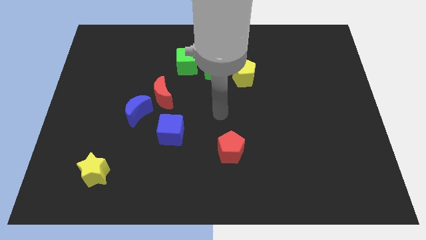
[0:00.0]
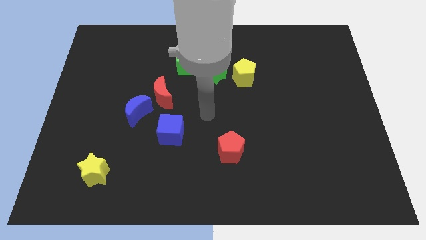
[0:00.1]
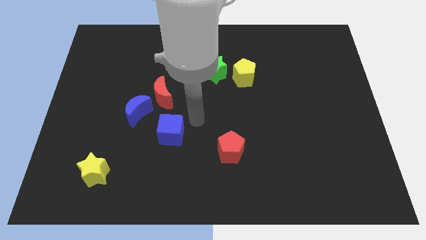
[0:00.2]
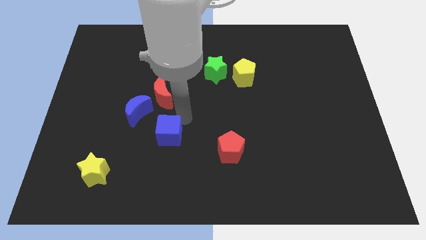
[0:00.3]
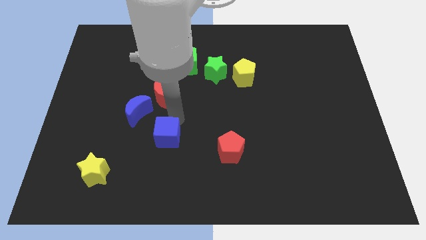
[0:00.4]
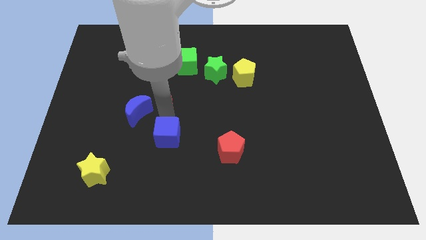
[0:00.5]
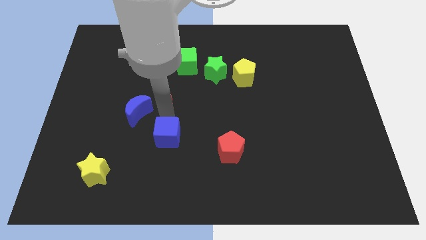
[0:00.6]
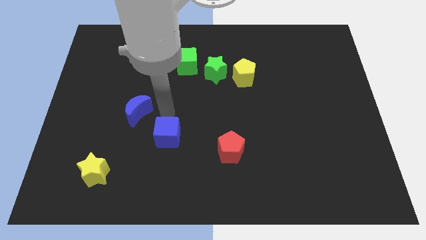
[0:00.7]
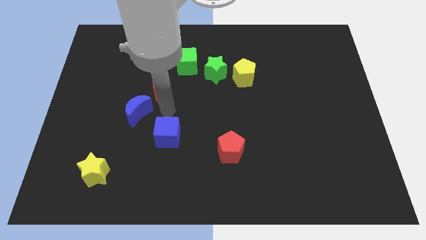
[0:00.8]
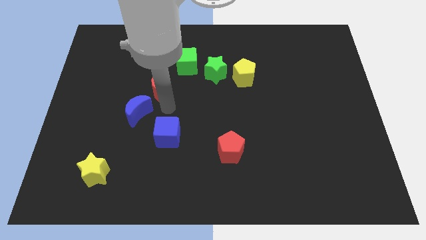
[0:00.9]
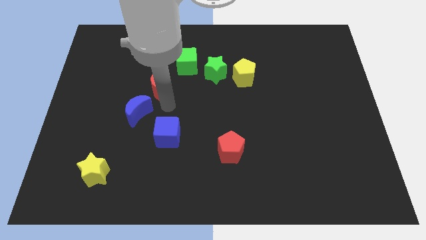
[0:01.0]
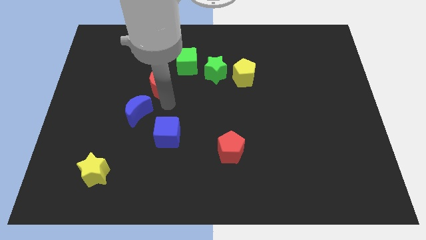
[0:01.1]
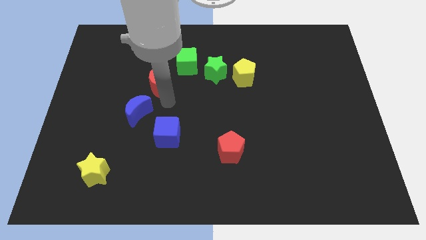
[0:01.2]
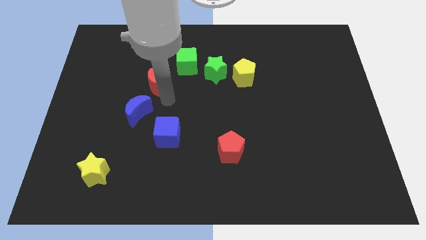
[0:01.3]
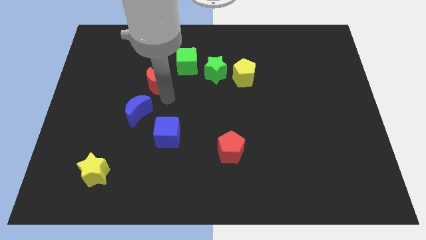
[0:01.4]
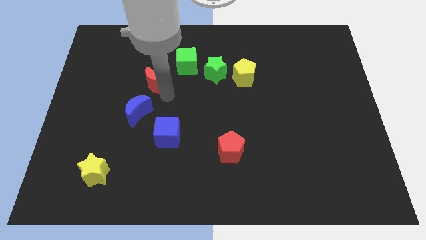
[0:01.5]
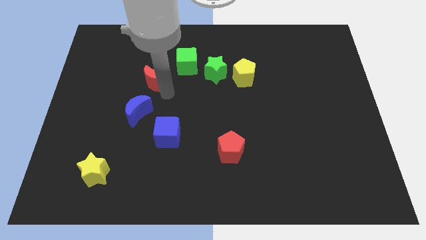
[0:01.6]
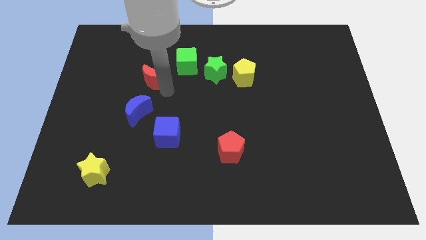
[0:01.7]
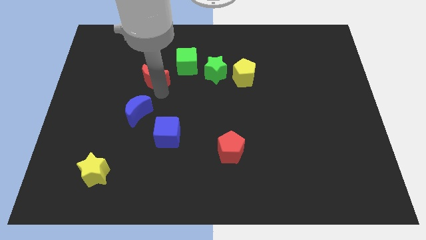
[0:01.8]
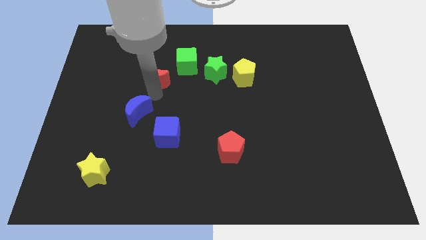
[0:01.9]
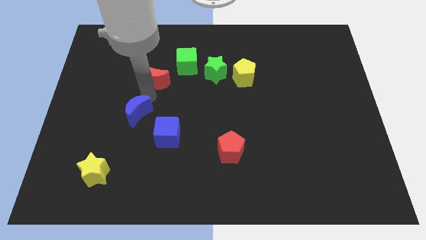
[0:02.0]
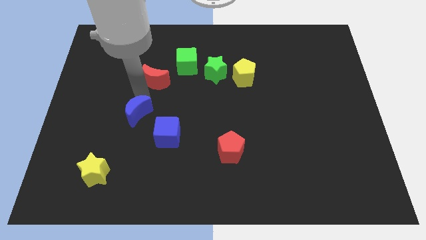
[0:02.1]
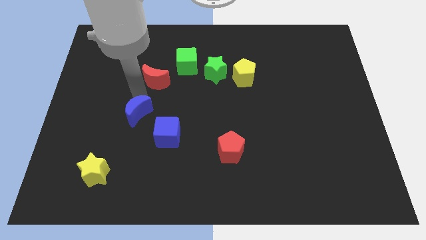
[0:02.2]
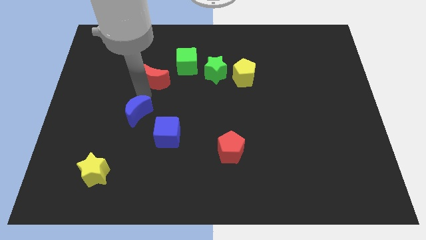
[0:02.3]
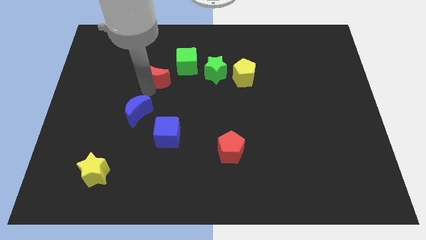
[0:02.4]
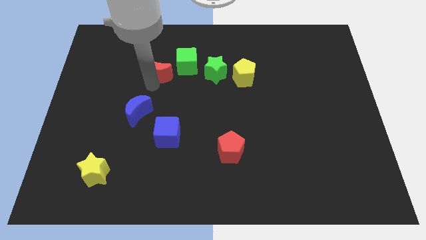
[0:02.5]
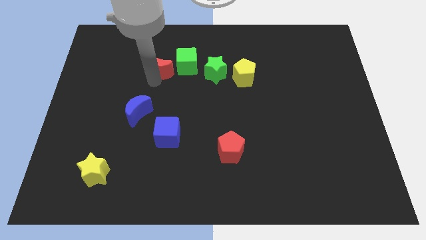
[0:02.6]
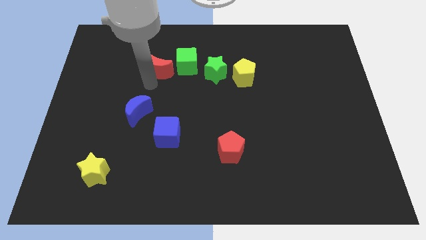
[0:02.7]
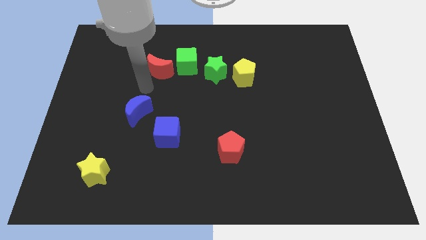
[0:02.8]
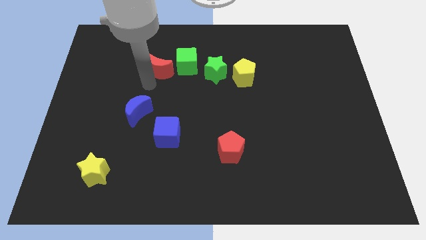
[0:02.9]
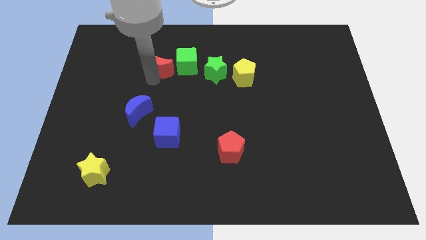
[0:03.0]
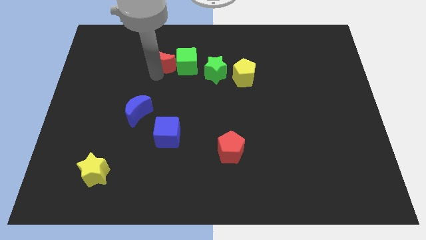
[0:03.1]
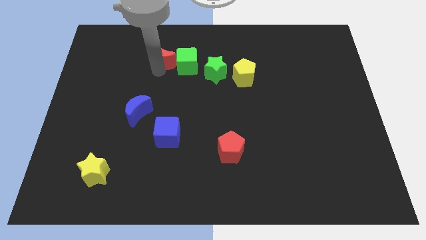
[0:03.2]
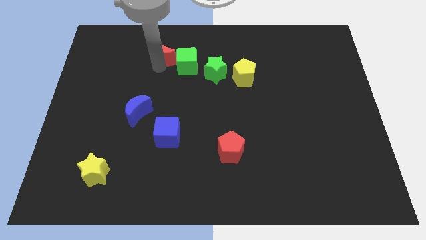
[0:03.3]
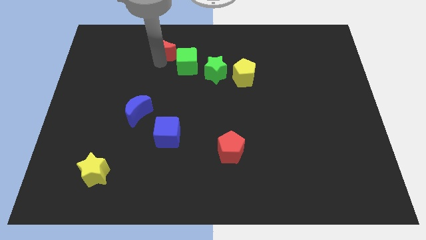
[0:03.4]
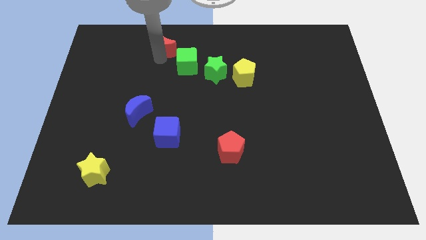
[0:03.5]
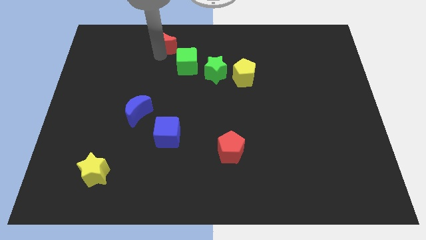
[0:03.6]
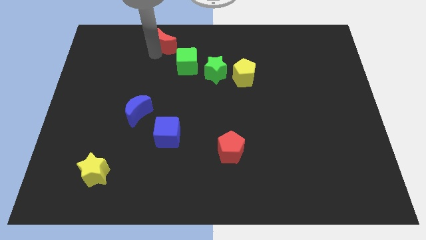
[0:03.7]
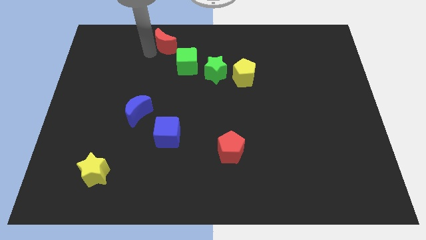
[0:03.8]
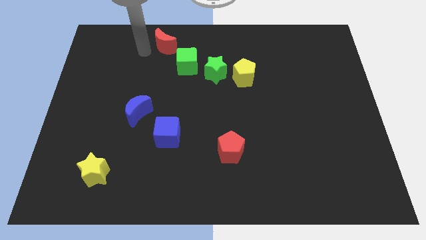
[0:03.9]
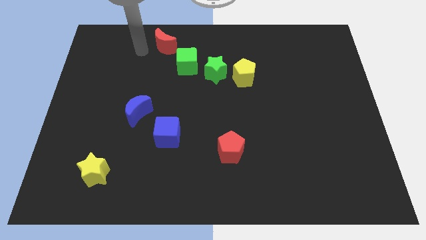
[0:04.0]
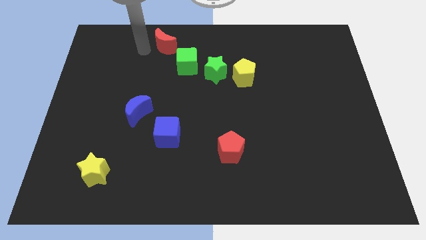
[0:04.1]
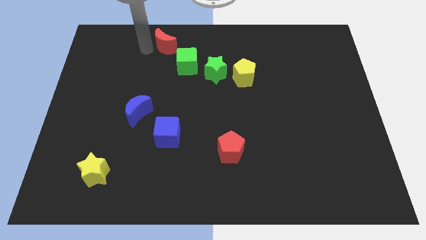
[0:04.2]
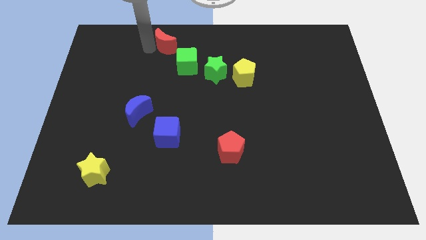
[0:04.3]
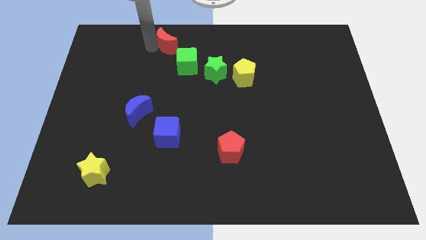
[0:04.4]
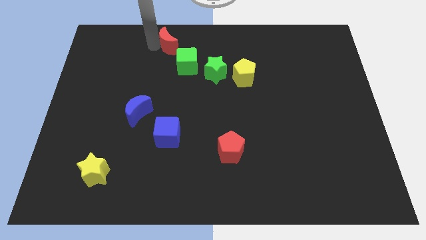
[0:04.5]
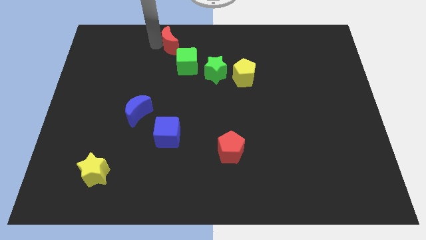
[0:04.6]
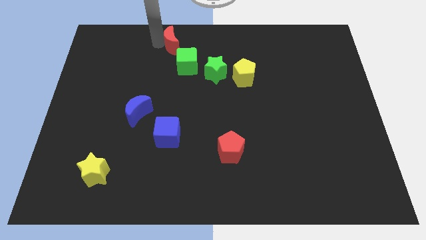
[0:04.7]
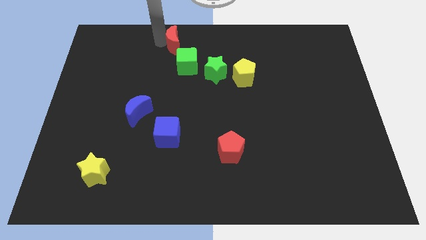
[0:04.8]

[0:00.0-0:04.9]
push the red moon to the top

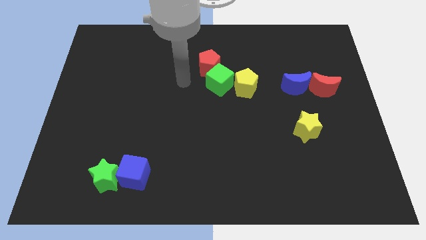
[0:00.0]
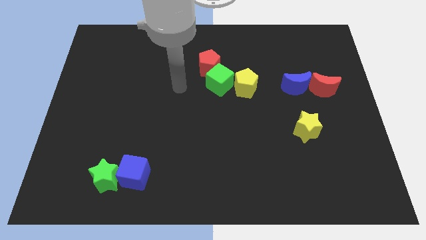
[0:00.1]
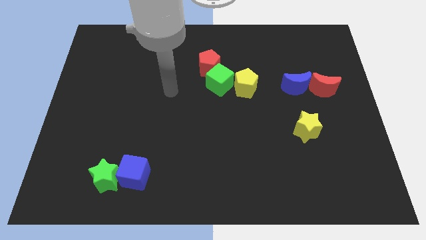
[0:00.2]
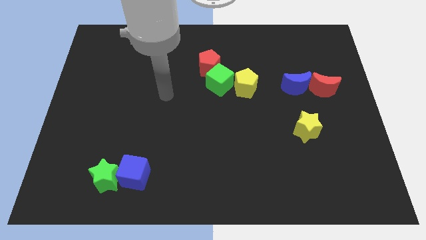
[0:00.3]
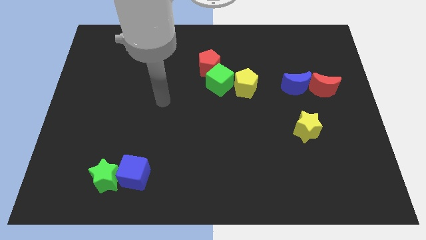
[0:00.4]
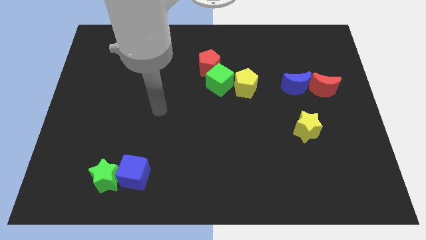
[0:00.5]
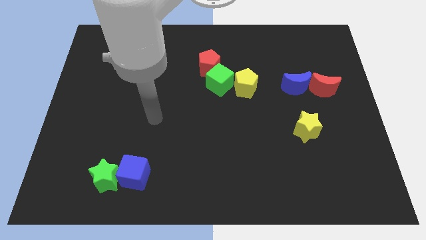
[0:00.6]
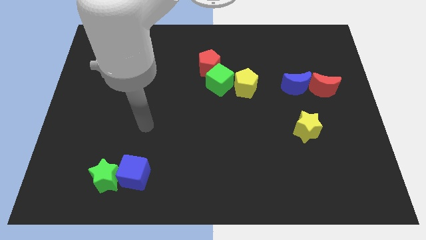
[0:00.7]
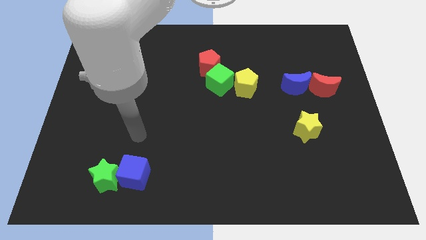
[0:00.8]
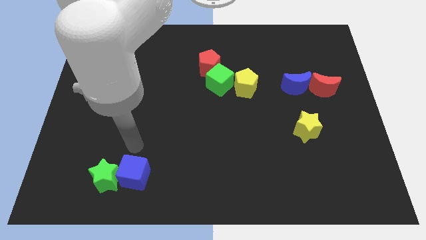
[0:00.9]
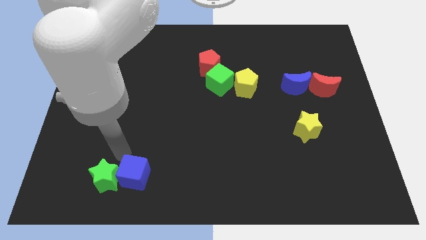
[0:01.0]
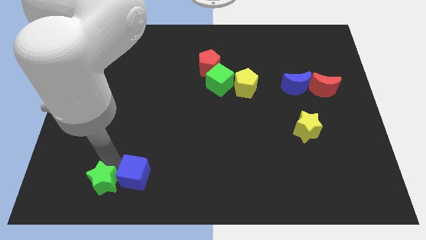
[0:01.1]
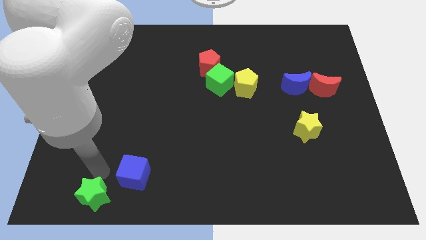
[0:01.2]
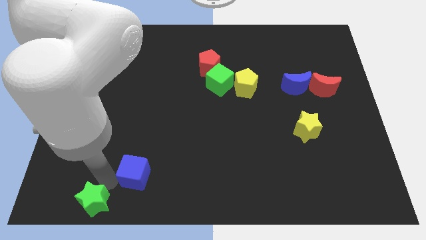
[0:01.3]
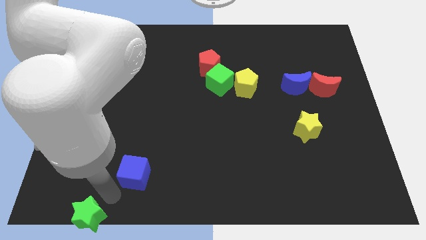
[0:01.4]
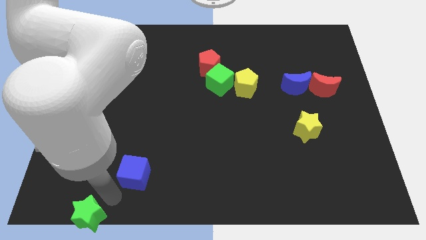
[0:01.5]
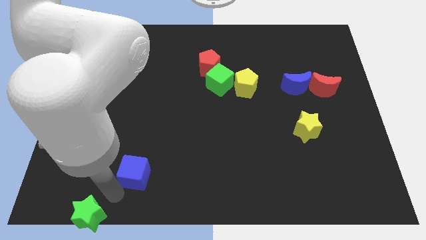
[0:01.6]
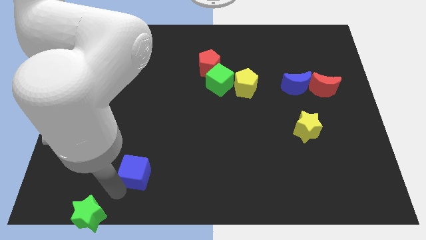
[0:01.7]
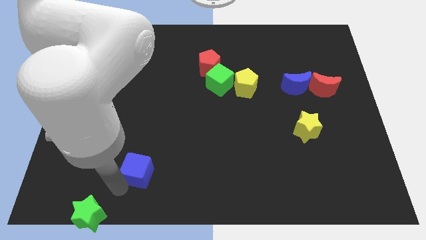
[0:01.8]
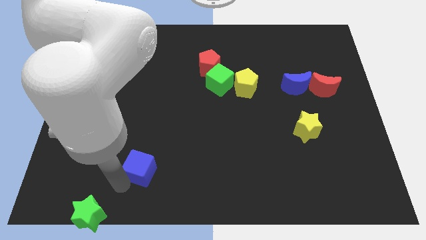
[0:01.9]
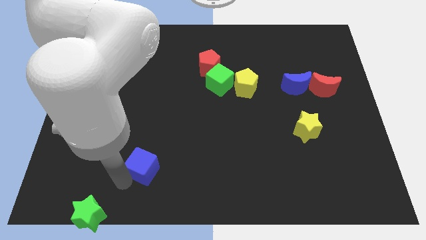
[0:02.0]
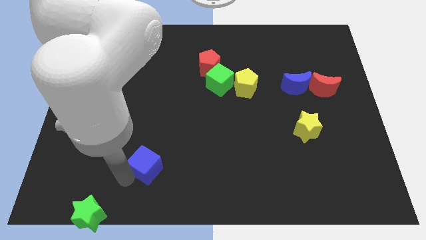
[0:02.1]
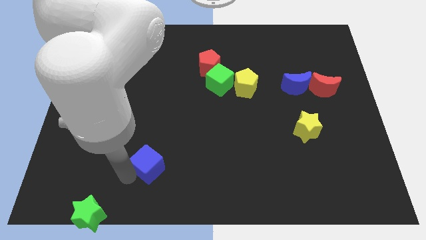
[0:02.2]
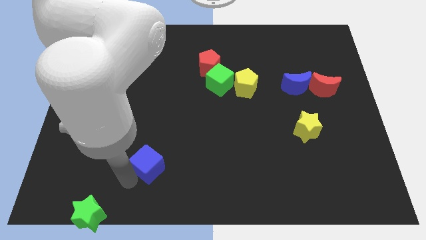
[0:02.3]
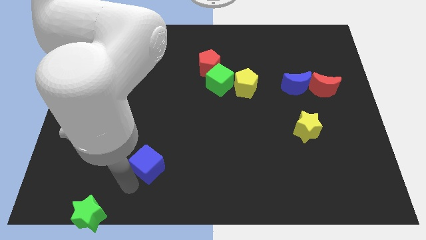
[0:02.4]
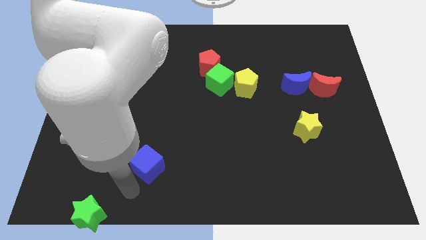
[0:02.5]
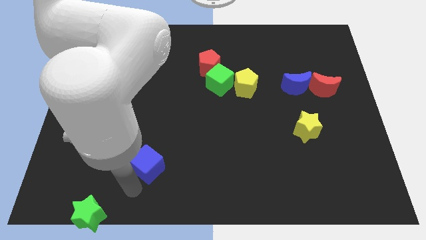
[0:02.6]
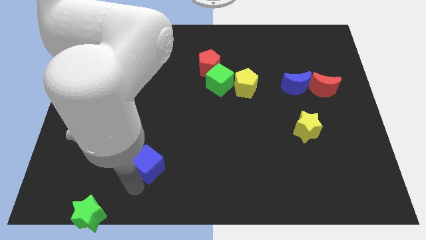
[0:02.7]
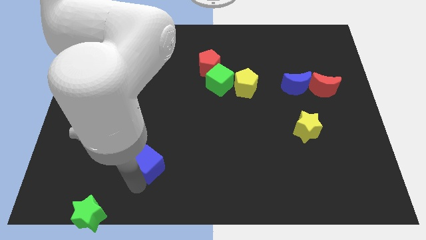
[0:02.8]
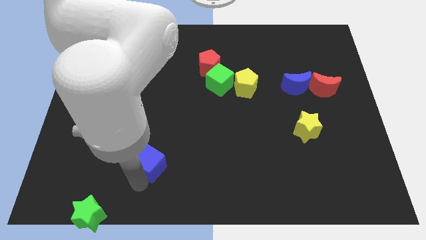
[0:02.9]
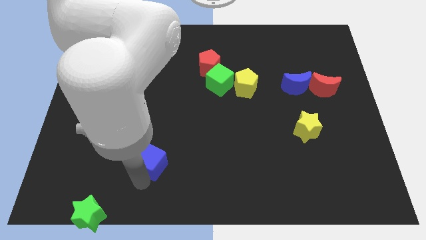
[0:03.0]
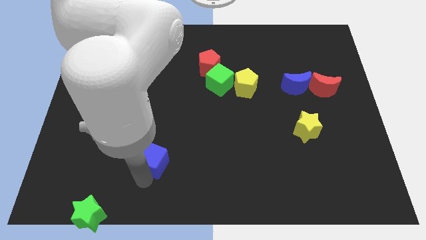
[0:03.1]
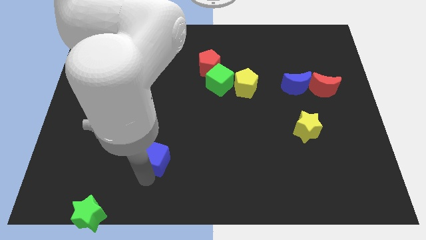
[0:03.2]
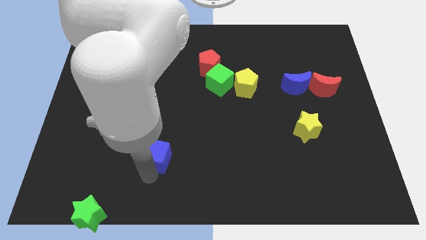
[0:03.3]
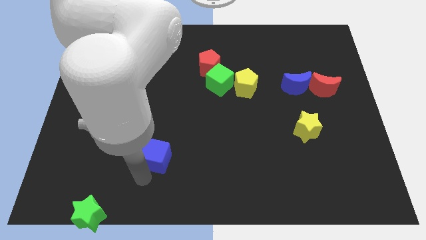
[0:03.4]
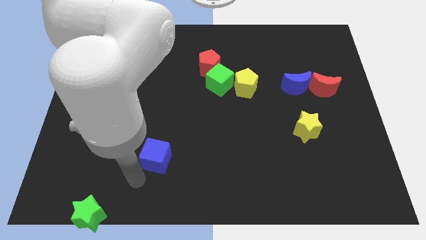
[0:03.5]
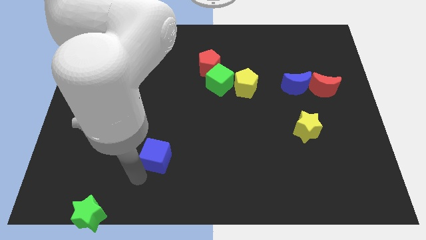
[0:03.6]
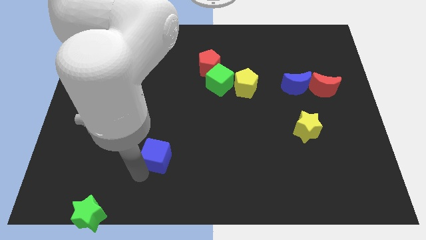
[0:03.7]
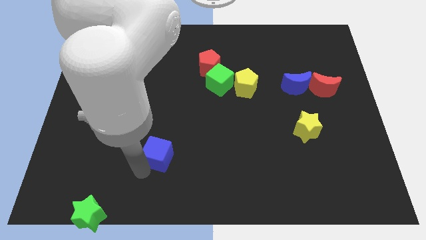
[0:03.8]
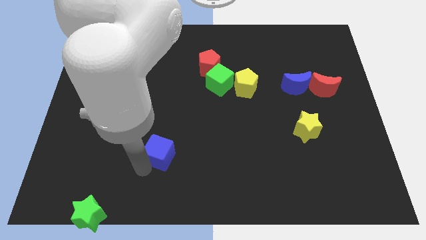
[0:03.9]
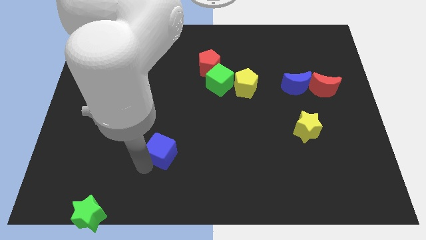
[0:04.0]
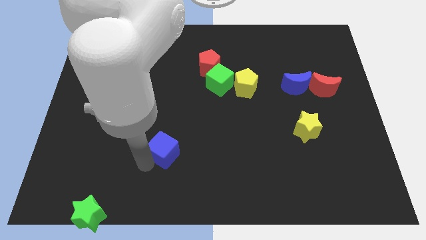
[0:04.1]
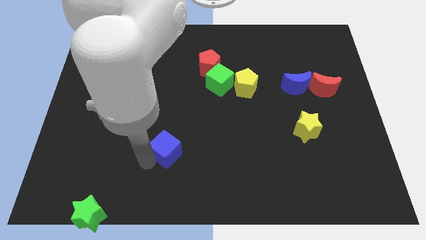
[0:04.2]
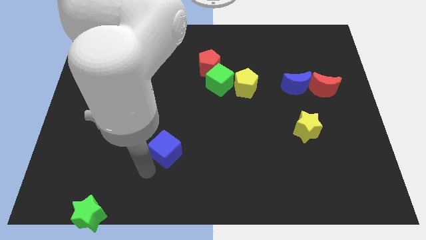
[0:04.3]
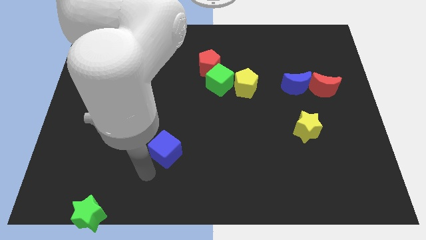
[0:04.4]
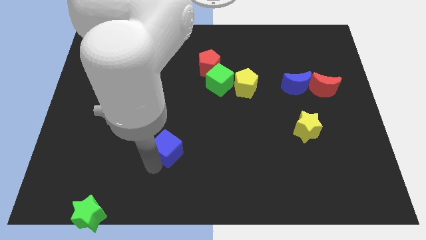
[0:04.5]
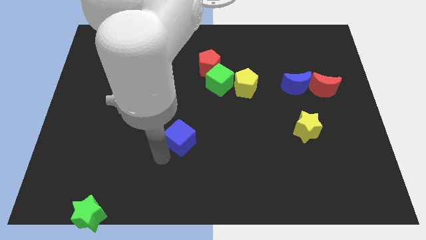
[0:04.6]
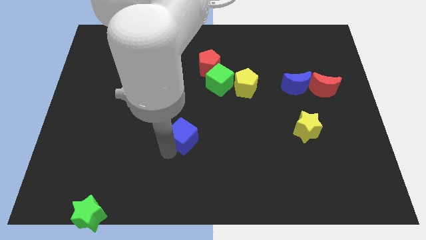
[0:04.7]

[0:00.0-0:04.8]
put the blue cube to the center
